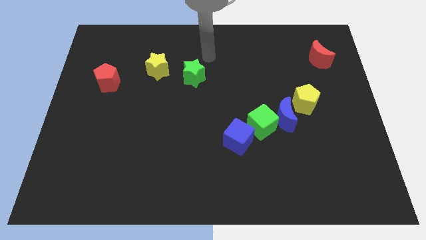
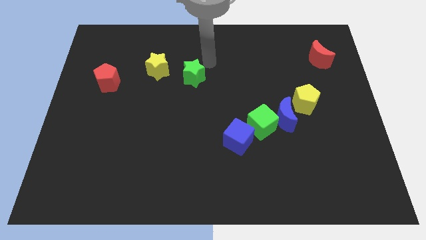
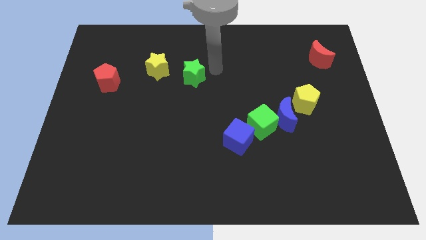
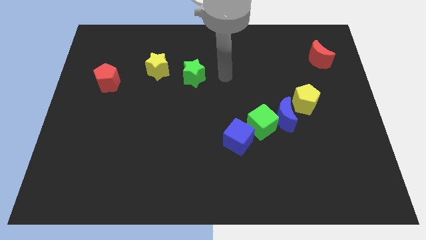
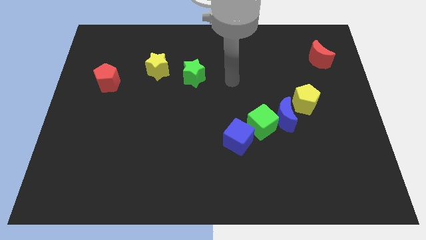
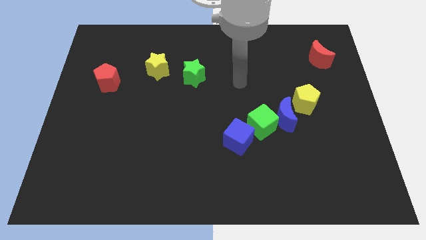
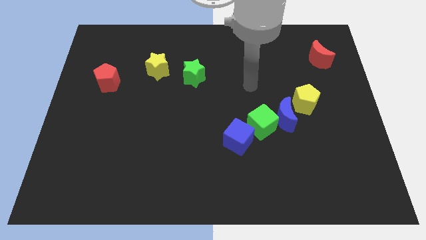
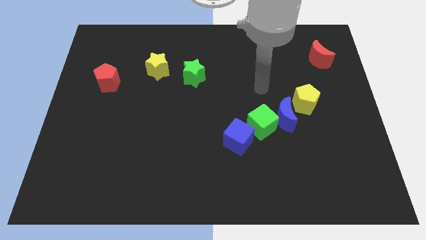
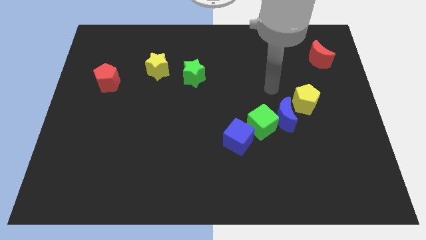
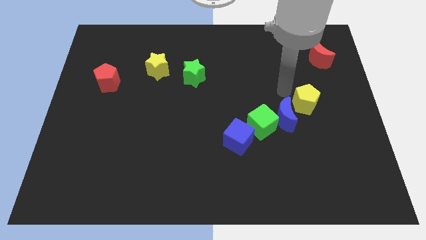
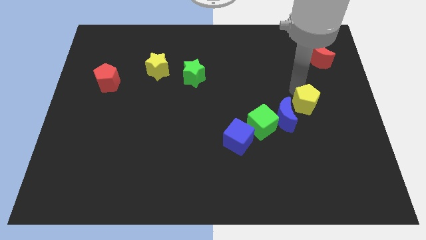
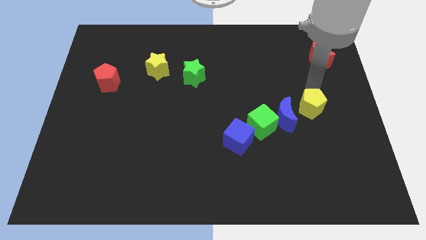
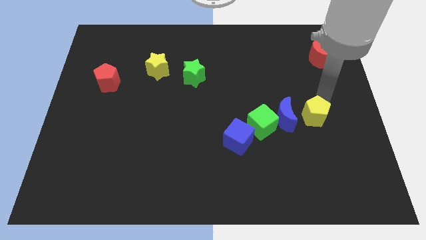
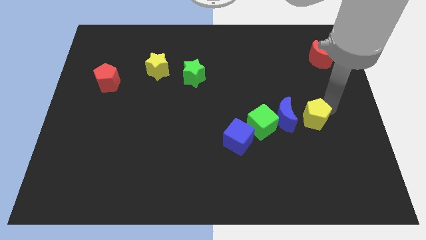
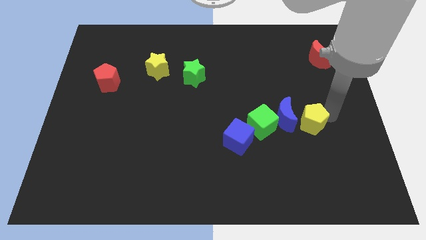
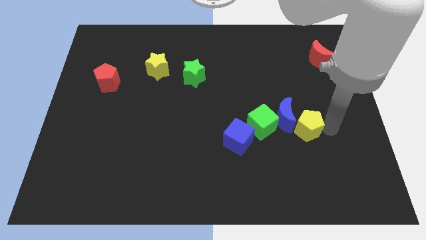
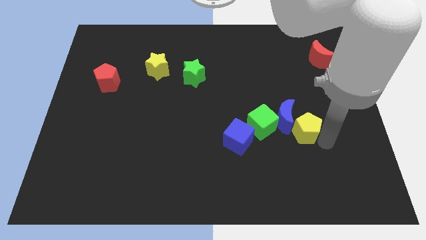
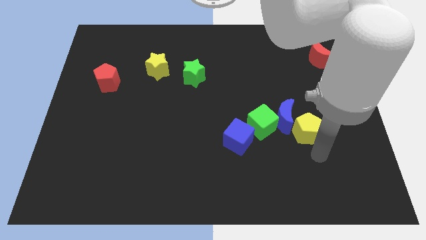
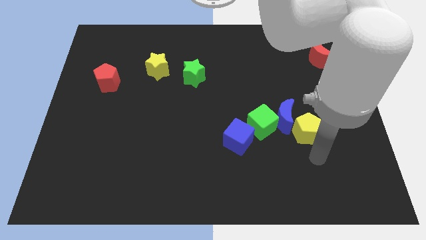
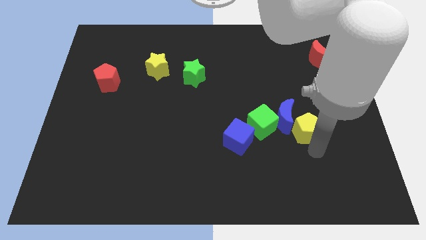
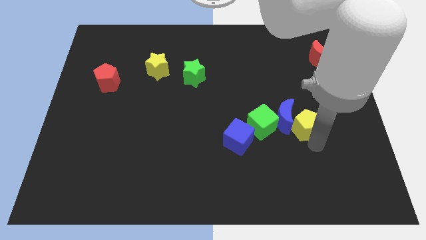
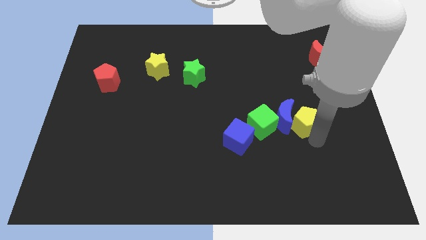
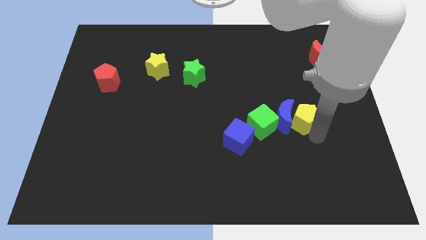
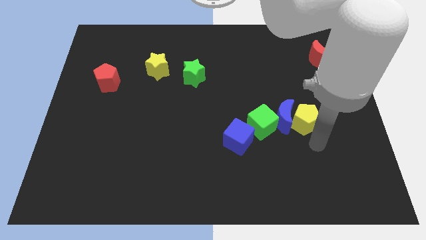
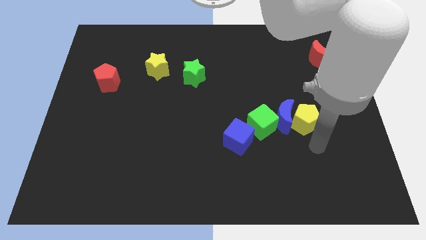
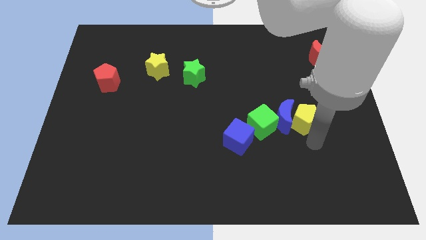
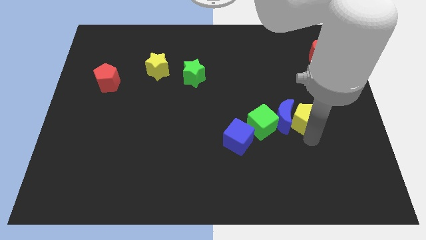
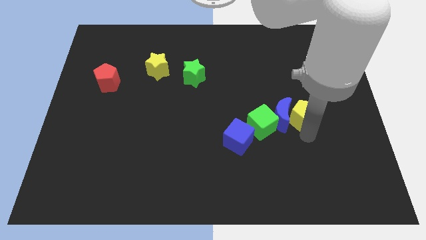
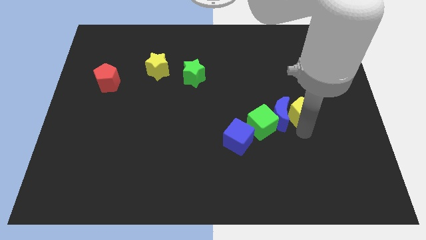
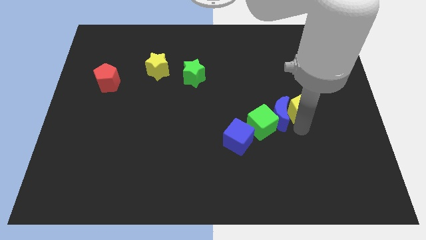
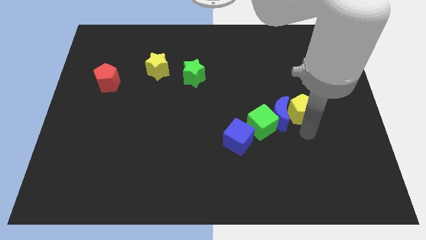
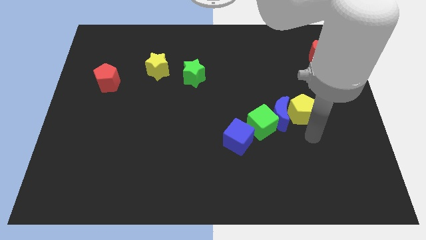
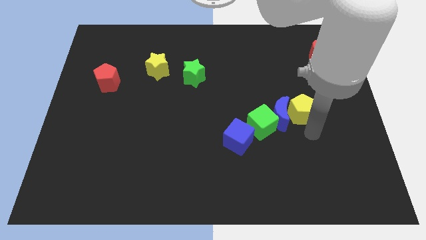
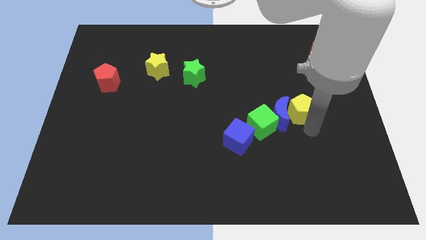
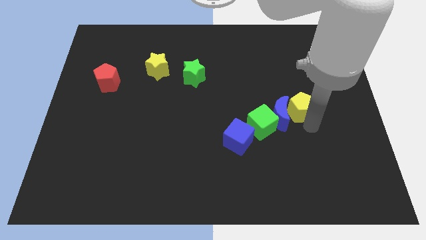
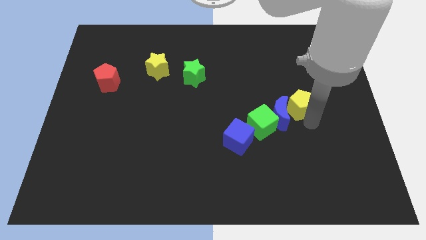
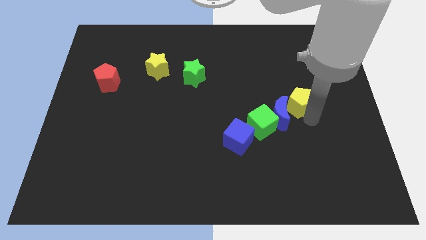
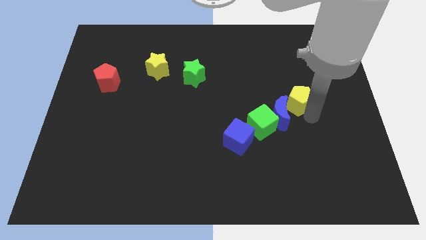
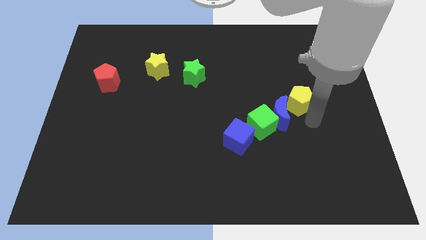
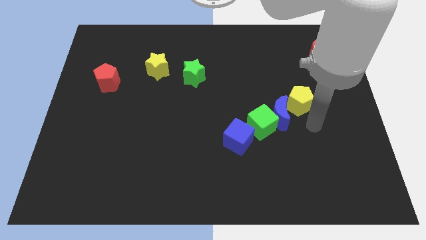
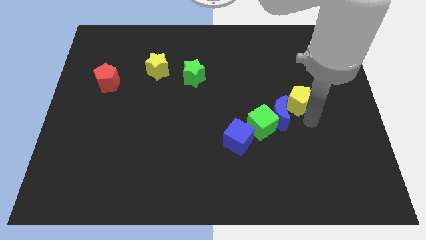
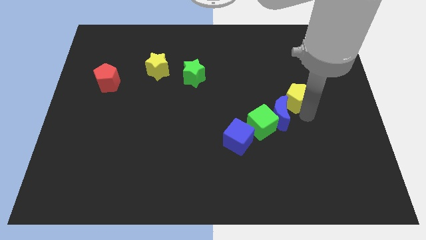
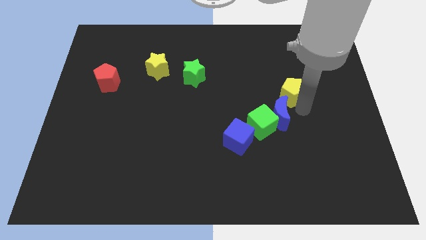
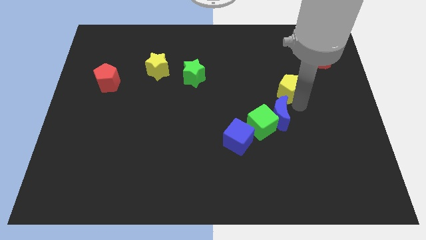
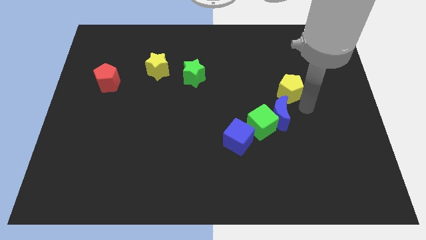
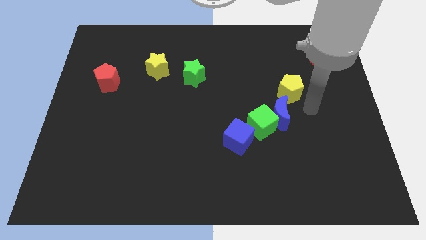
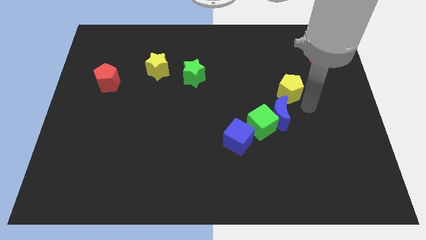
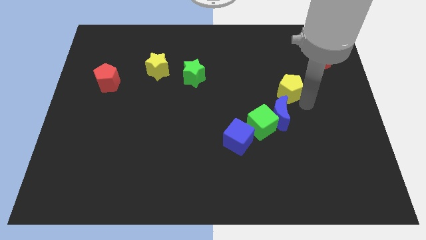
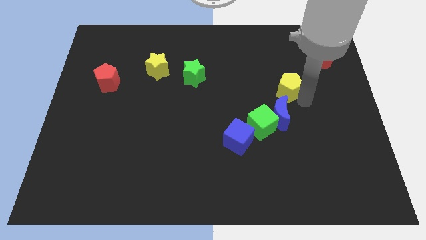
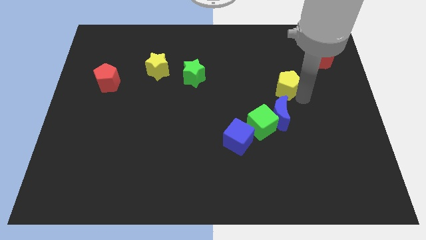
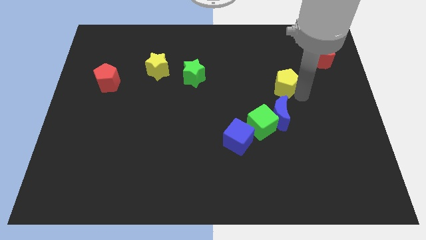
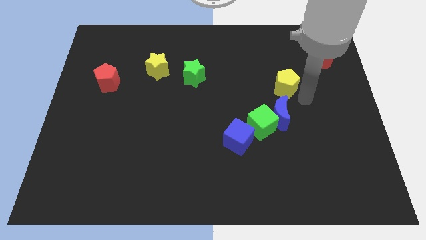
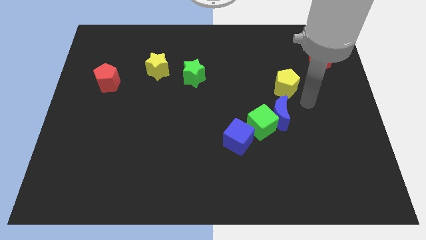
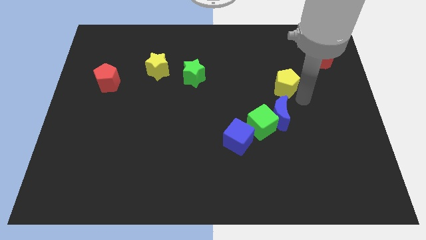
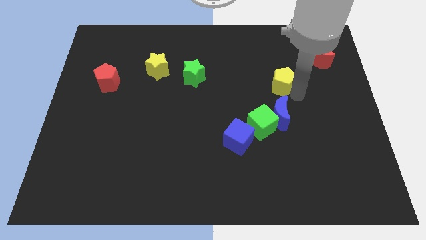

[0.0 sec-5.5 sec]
slide the yellow pentagon diagonally upwards and to the left a bit

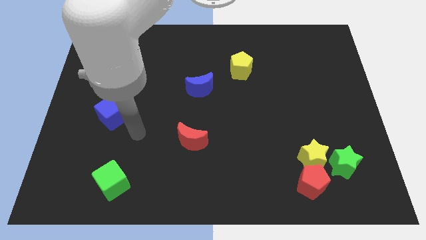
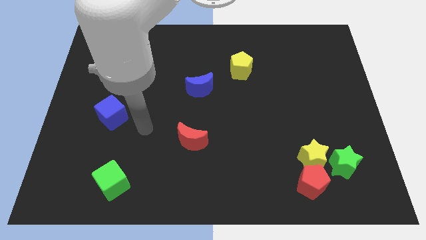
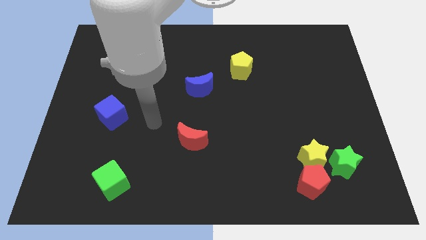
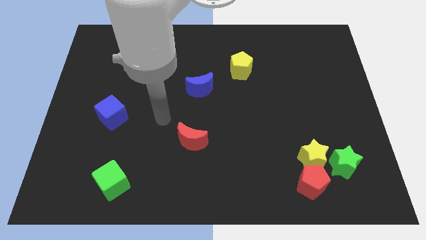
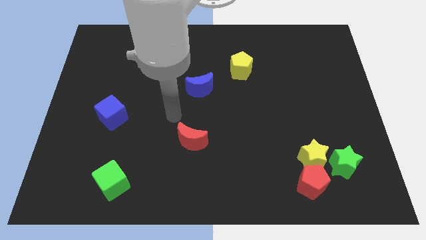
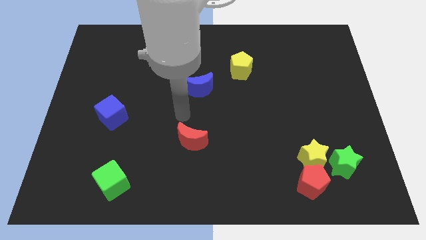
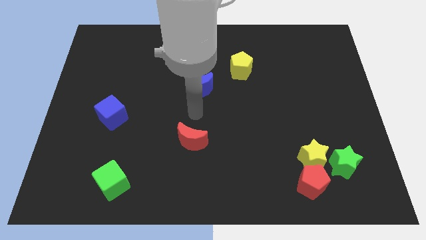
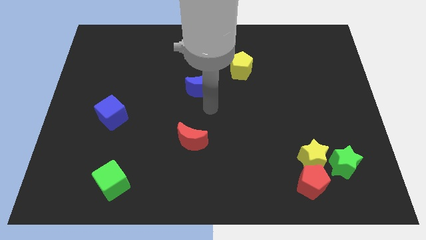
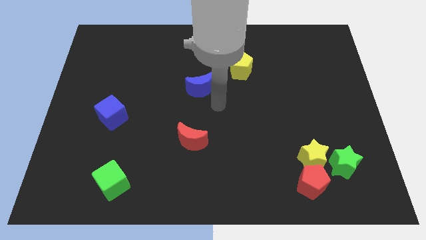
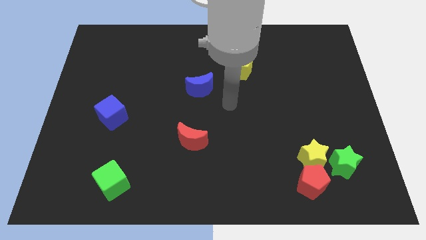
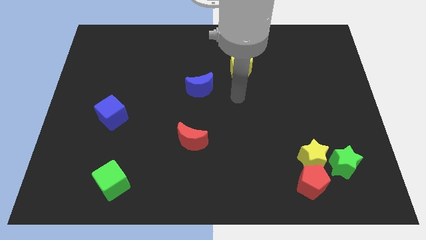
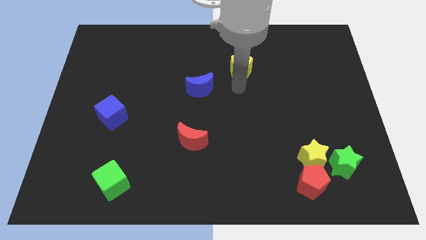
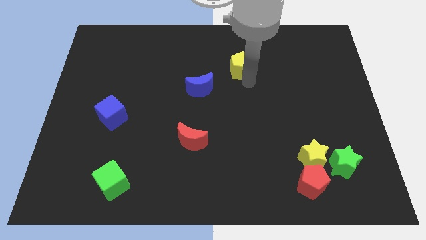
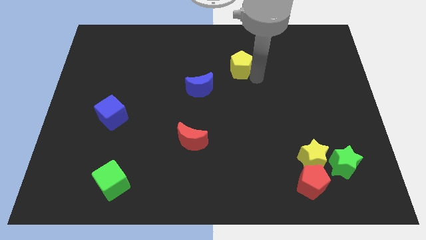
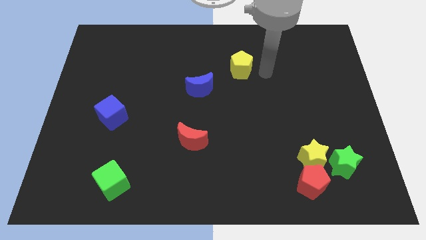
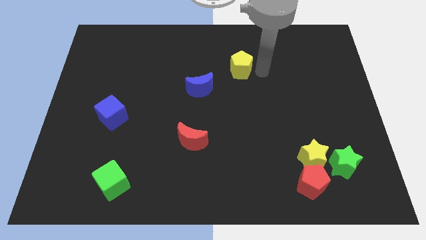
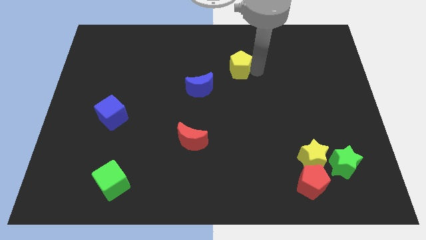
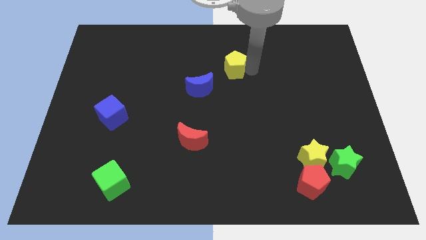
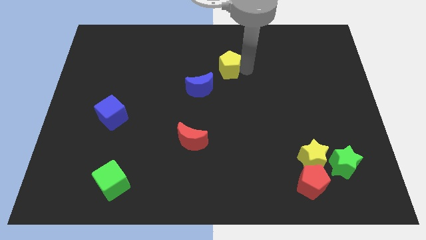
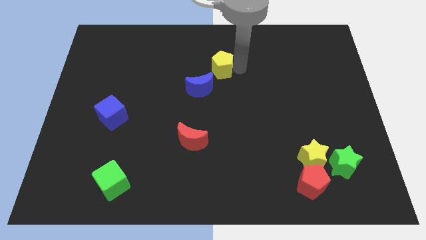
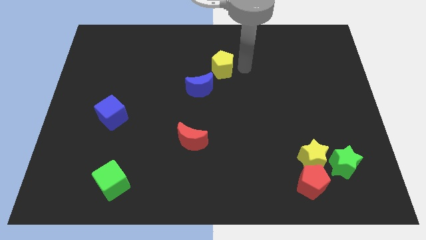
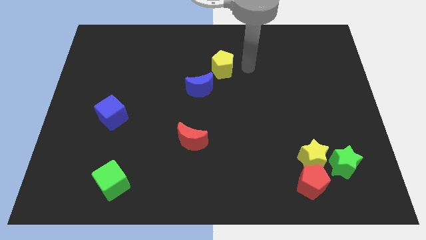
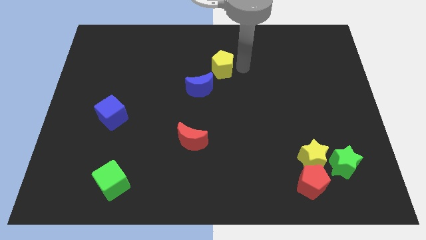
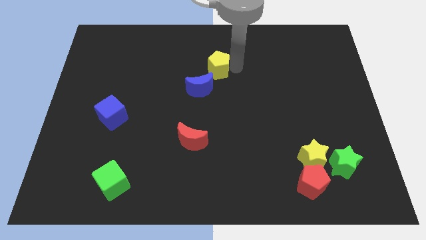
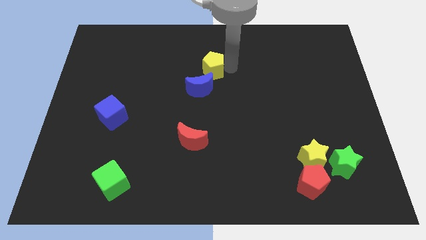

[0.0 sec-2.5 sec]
slide the yellow pentagon somewhat to the left
